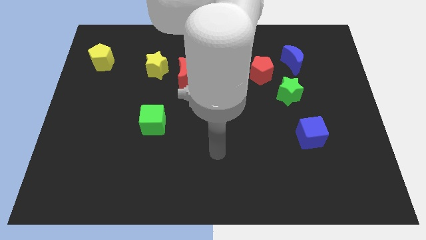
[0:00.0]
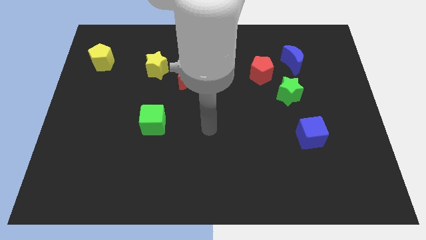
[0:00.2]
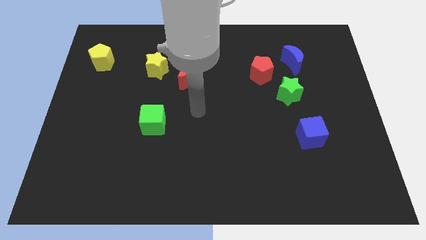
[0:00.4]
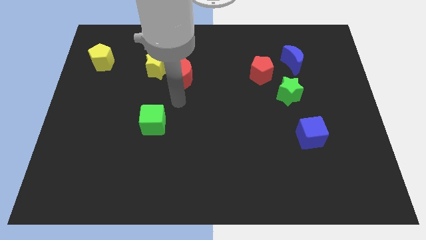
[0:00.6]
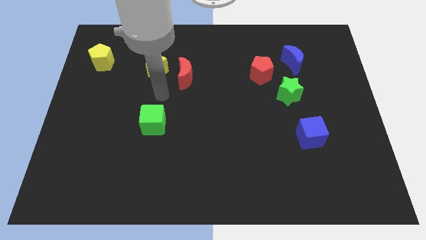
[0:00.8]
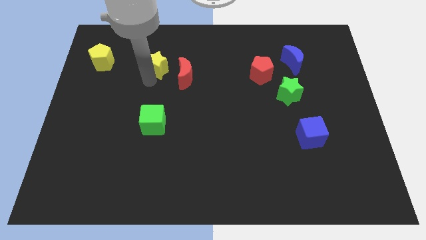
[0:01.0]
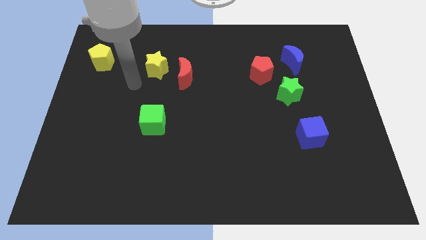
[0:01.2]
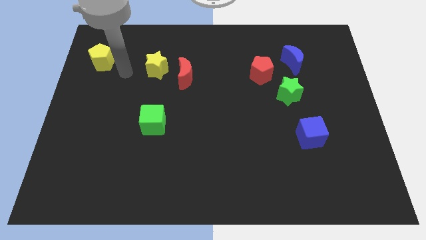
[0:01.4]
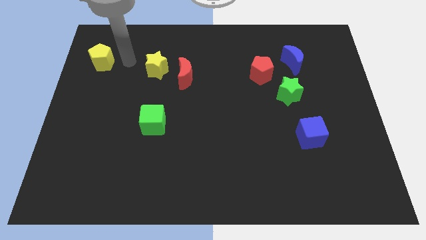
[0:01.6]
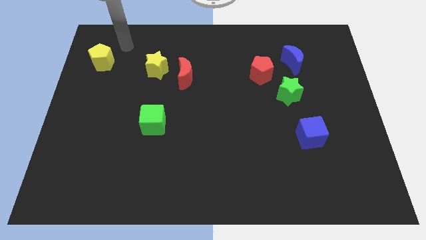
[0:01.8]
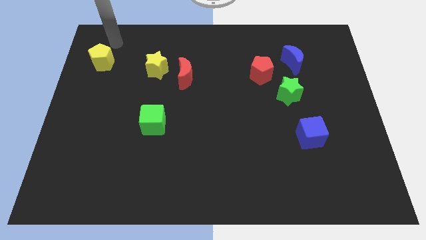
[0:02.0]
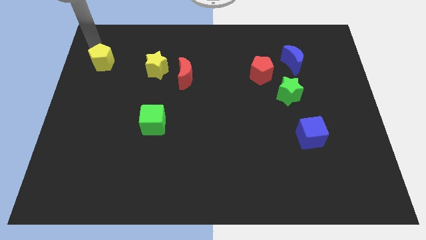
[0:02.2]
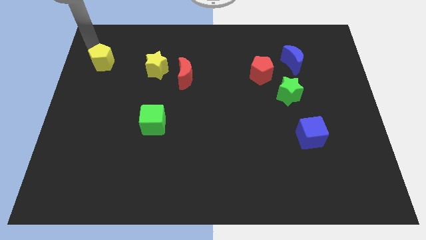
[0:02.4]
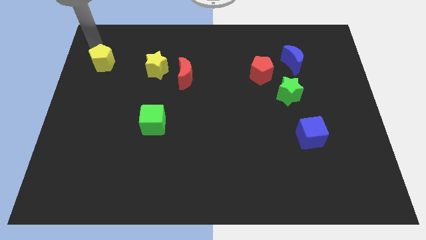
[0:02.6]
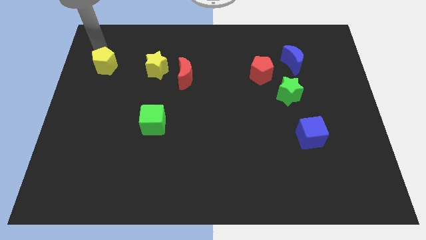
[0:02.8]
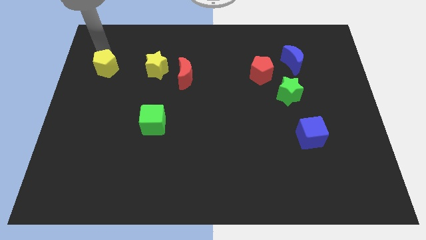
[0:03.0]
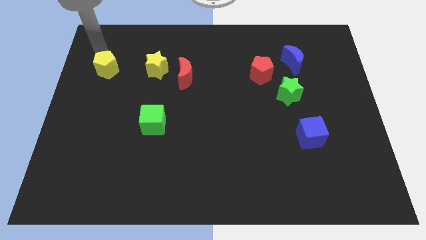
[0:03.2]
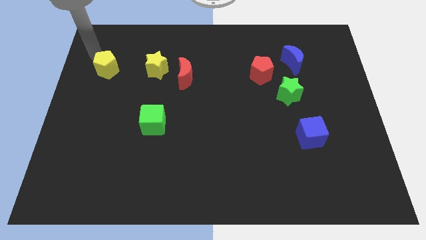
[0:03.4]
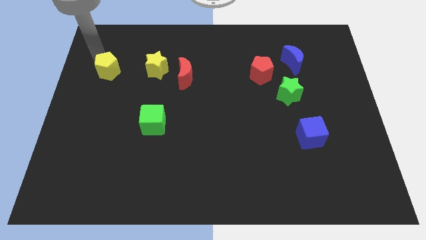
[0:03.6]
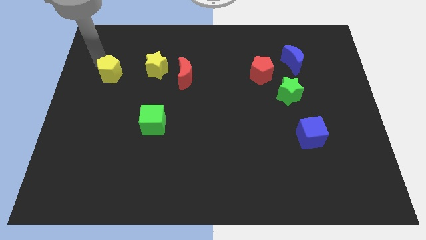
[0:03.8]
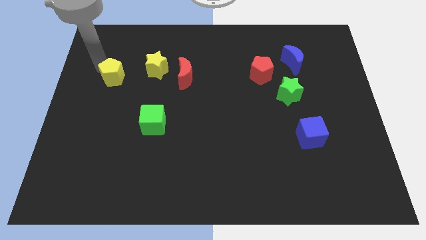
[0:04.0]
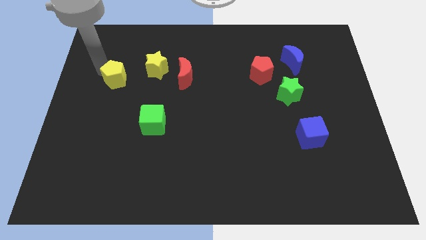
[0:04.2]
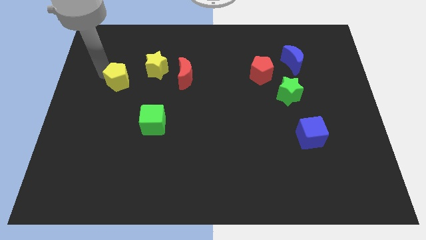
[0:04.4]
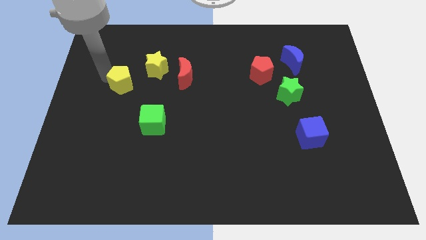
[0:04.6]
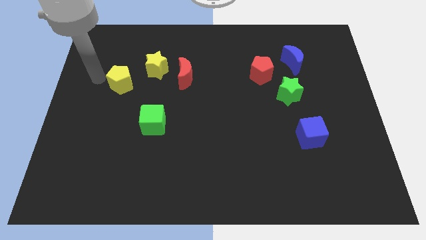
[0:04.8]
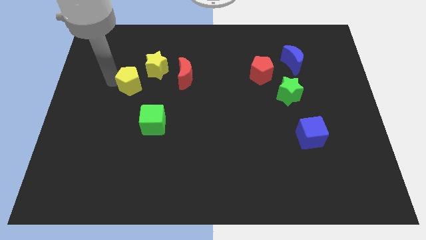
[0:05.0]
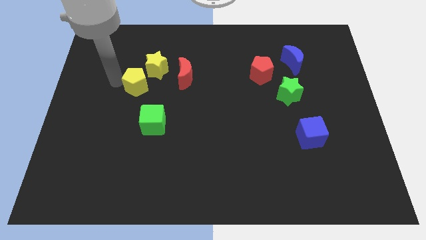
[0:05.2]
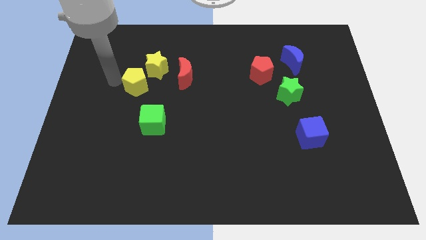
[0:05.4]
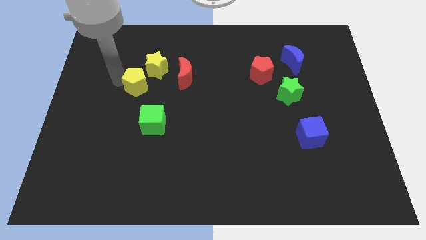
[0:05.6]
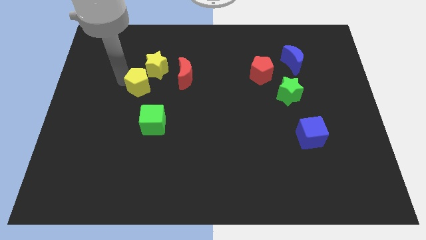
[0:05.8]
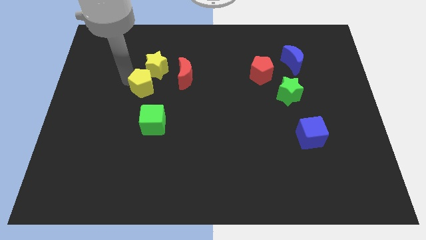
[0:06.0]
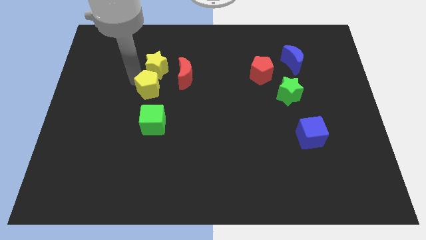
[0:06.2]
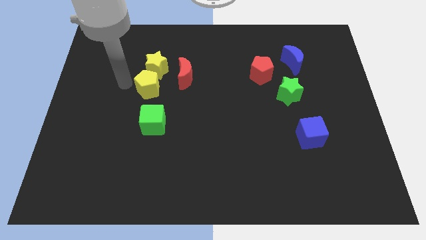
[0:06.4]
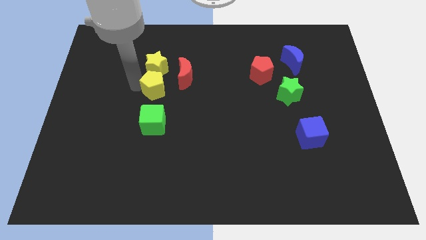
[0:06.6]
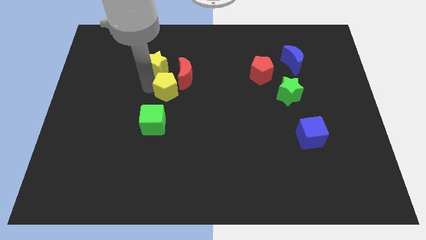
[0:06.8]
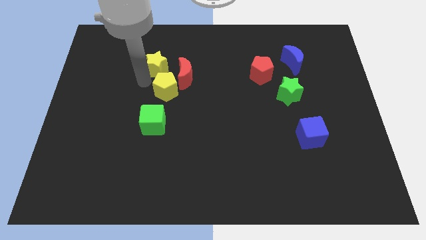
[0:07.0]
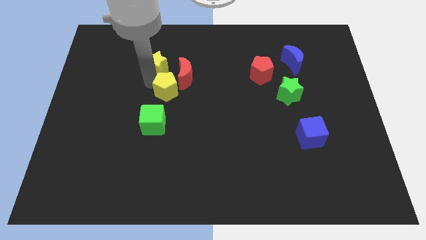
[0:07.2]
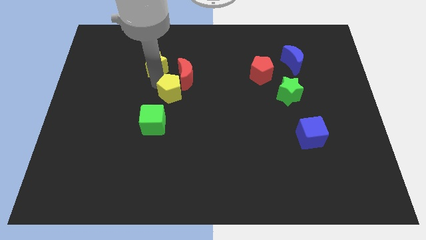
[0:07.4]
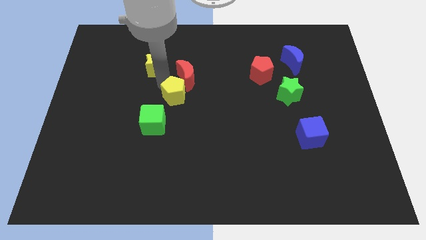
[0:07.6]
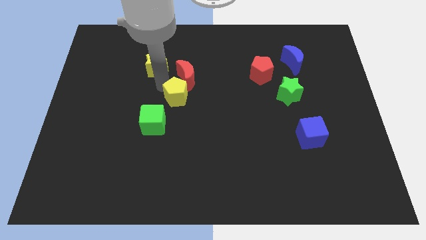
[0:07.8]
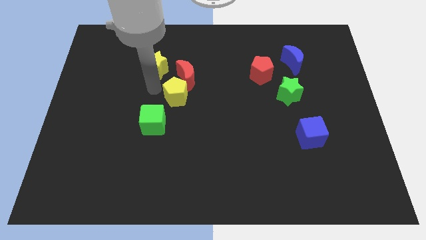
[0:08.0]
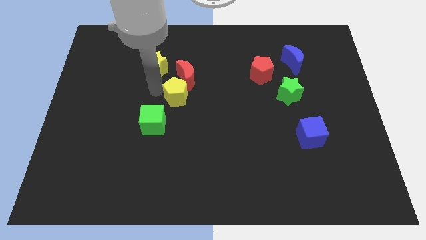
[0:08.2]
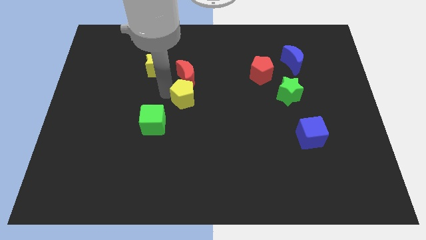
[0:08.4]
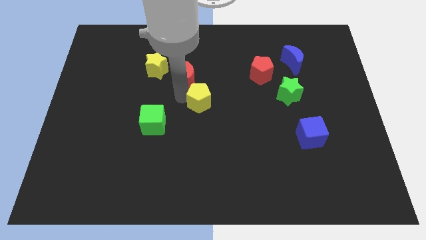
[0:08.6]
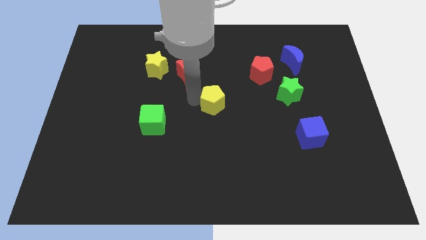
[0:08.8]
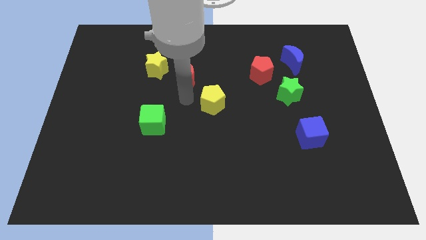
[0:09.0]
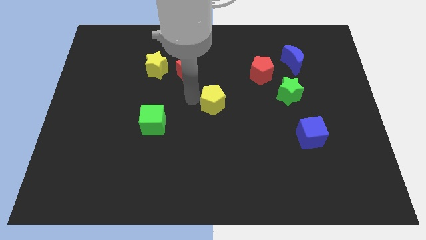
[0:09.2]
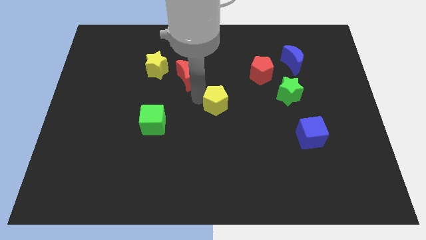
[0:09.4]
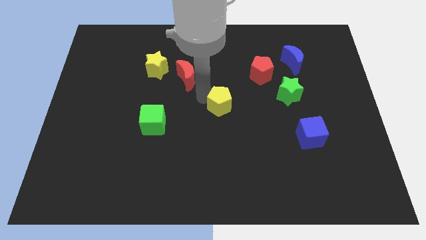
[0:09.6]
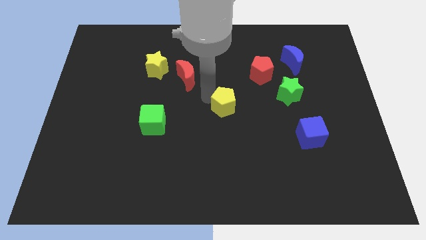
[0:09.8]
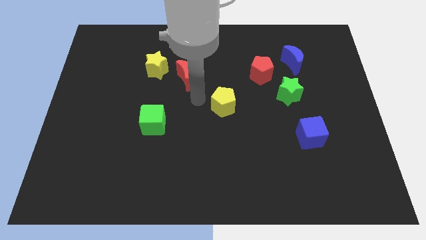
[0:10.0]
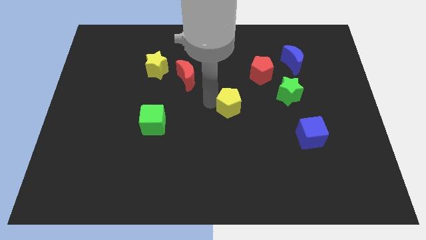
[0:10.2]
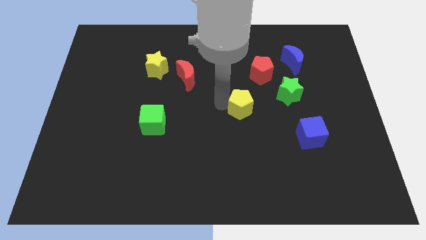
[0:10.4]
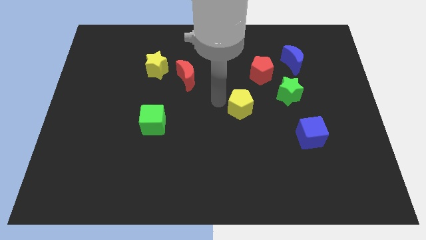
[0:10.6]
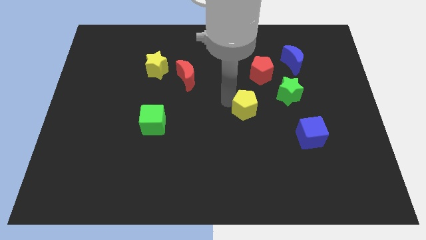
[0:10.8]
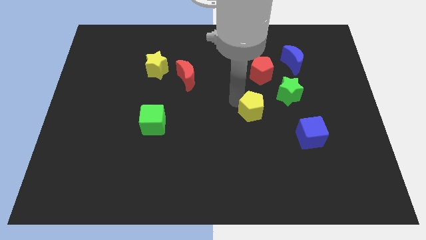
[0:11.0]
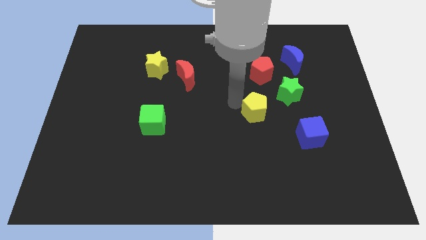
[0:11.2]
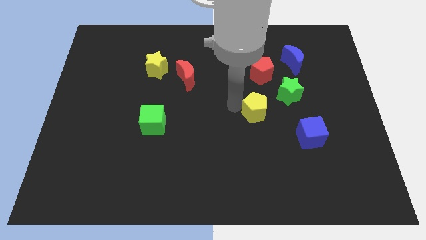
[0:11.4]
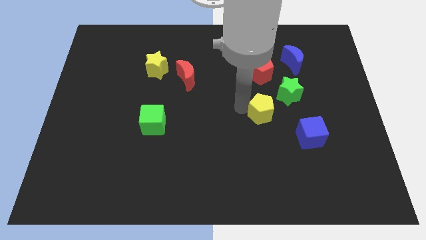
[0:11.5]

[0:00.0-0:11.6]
move the yellow pentagon to the top left of the blue cube

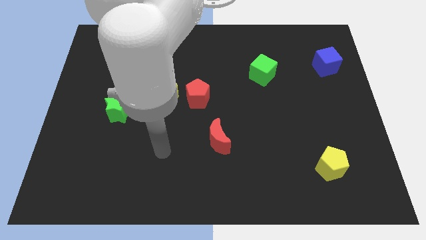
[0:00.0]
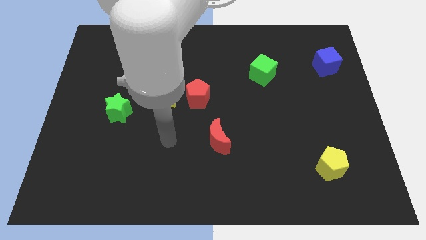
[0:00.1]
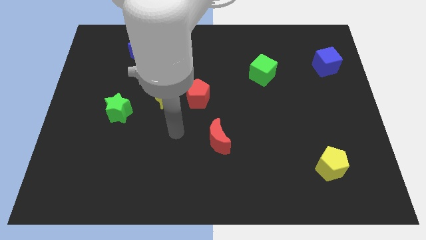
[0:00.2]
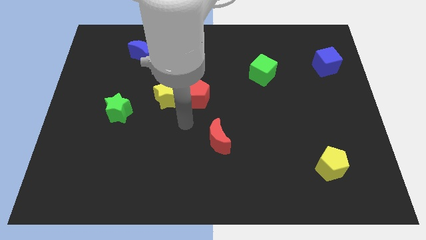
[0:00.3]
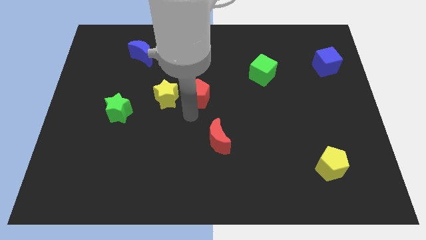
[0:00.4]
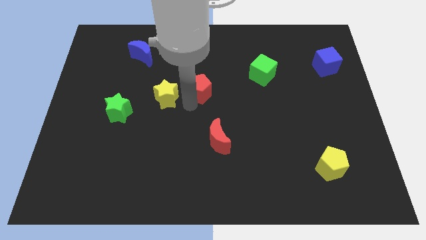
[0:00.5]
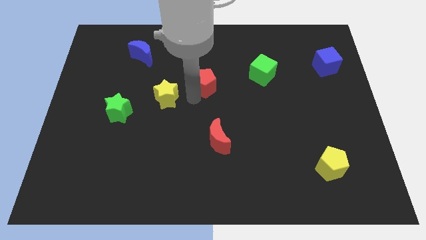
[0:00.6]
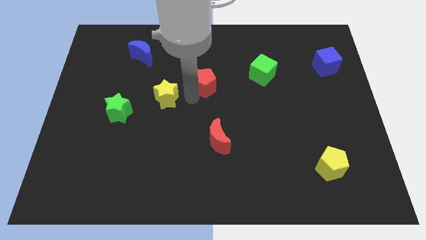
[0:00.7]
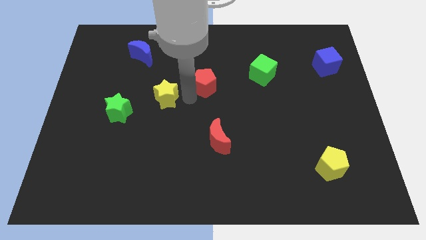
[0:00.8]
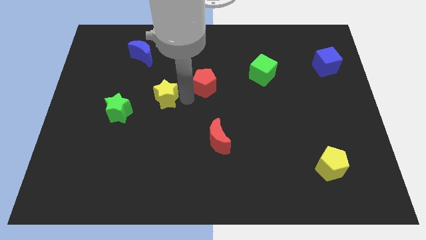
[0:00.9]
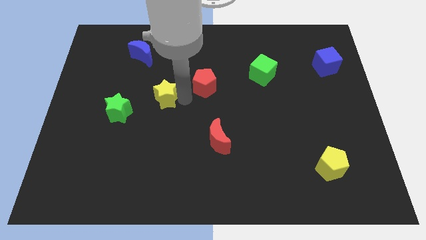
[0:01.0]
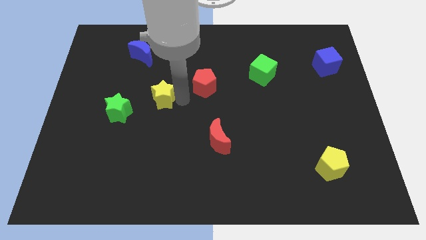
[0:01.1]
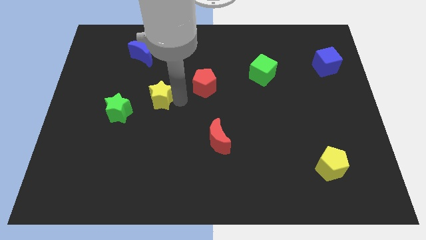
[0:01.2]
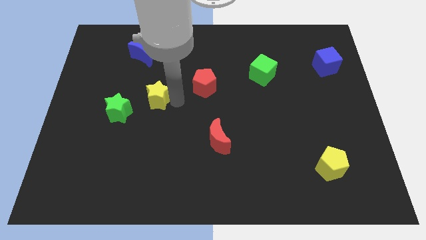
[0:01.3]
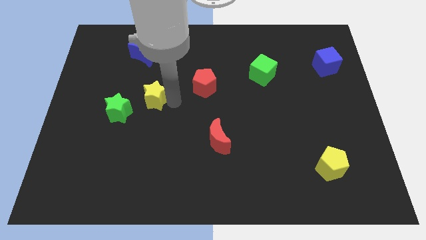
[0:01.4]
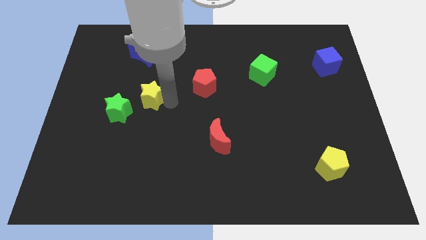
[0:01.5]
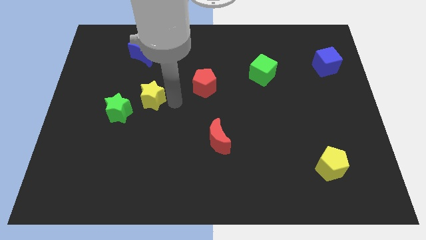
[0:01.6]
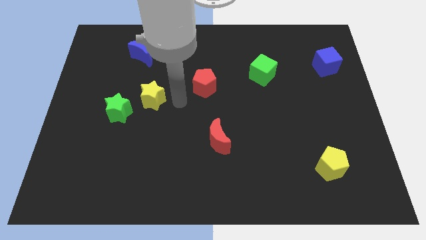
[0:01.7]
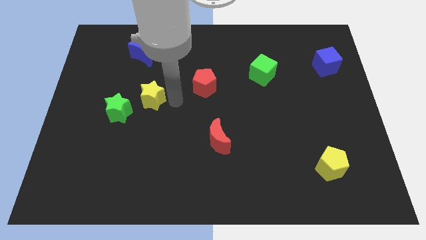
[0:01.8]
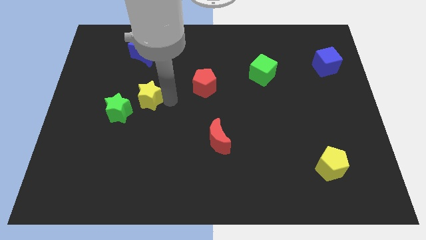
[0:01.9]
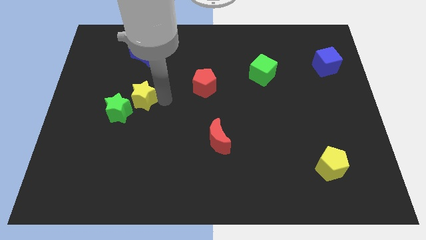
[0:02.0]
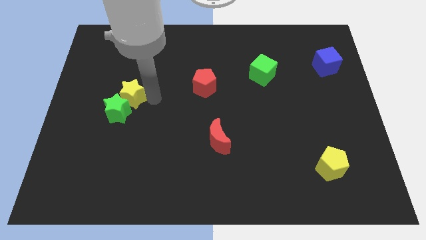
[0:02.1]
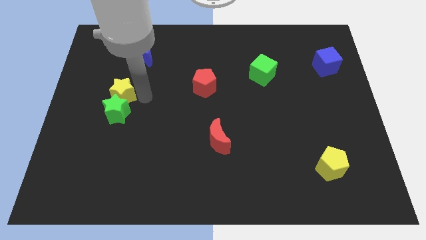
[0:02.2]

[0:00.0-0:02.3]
slide the yellow star diagonally up and to the left of the green star
